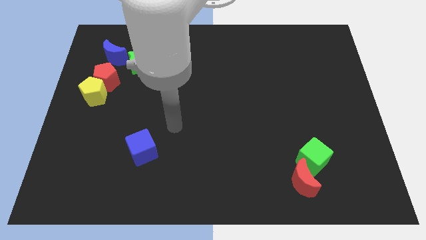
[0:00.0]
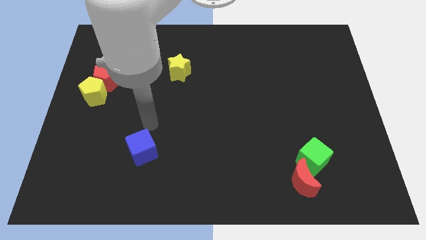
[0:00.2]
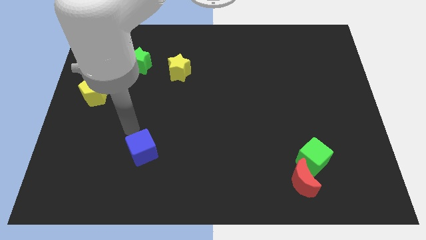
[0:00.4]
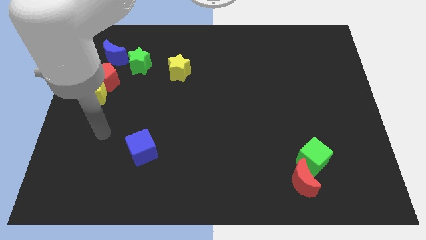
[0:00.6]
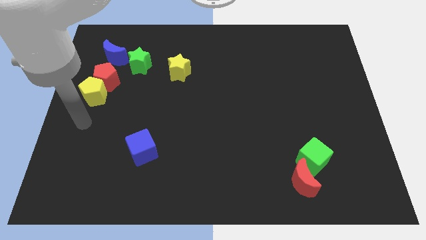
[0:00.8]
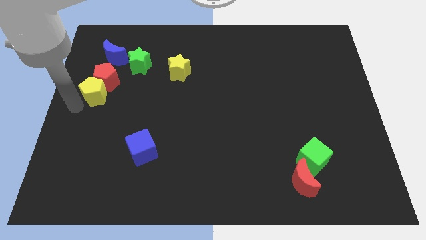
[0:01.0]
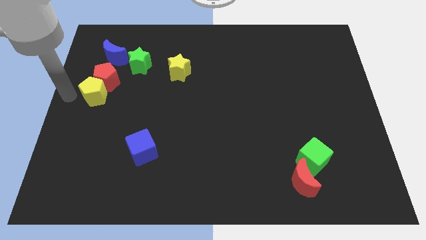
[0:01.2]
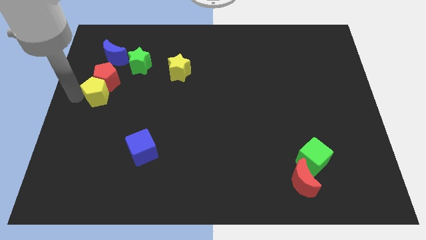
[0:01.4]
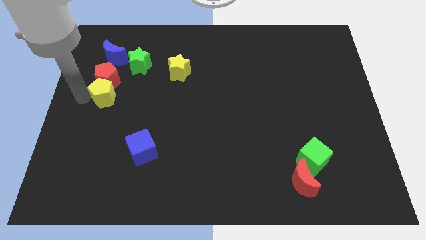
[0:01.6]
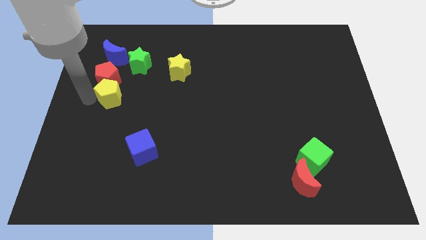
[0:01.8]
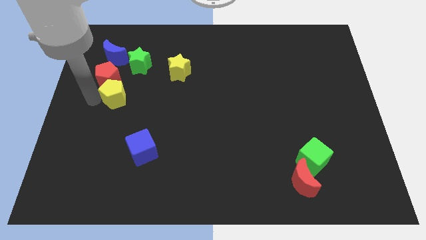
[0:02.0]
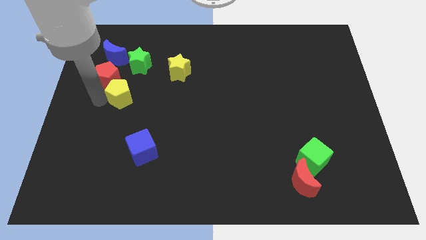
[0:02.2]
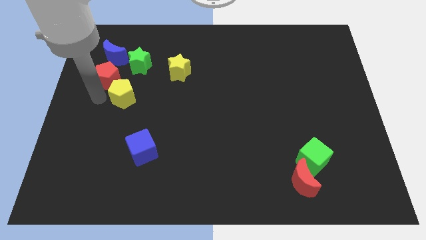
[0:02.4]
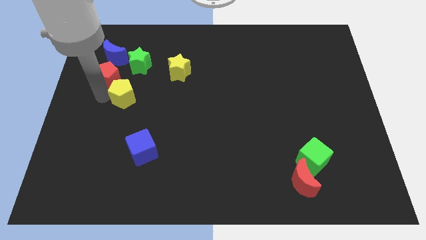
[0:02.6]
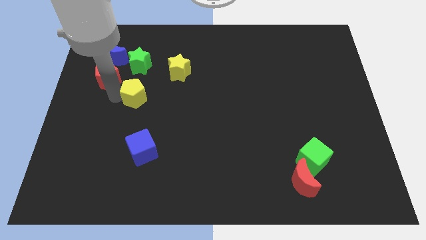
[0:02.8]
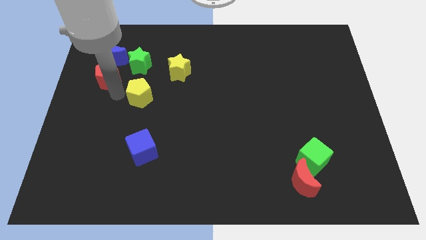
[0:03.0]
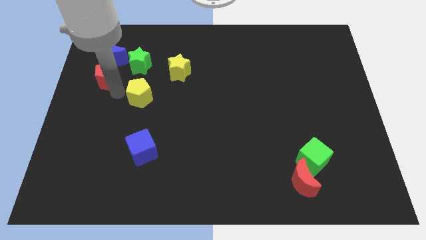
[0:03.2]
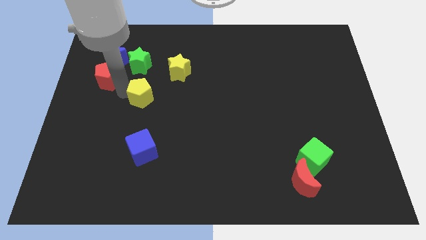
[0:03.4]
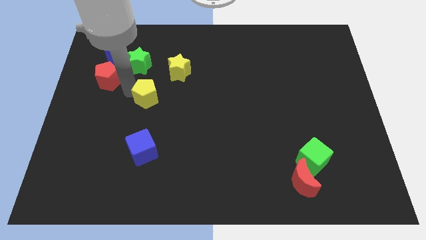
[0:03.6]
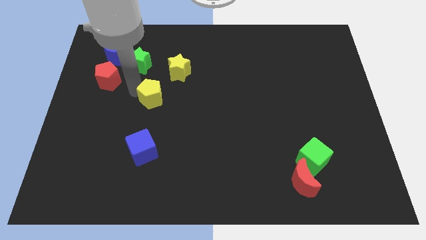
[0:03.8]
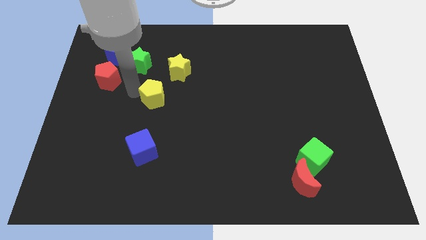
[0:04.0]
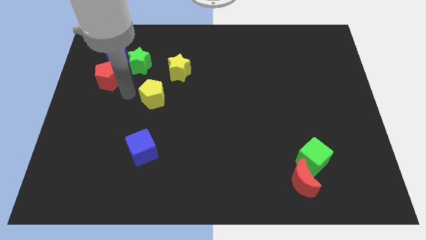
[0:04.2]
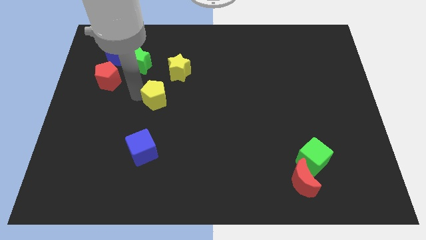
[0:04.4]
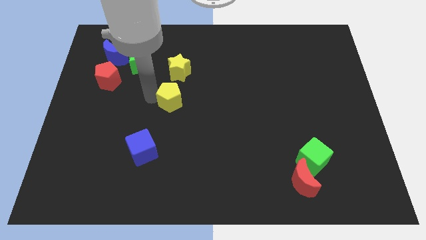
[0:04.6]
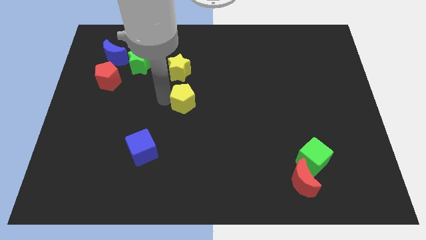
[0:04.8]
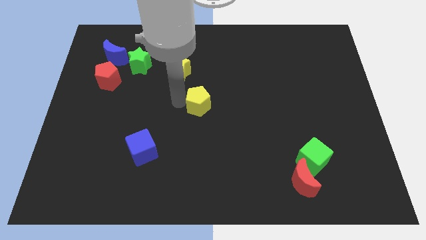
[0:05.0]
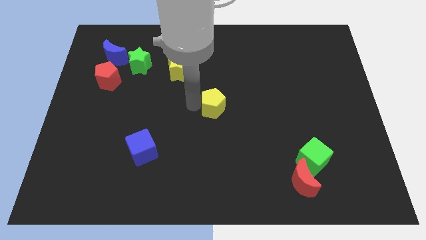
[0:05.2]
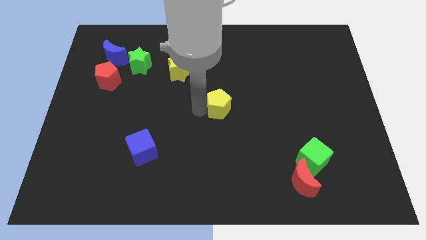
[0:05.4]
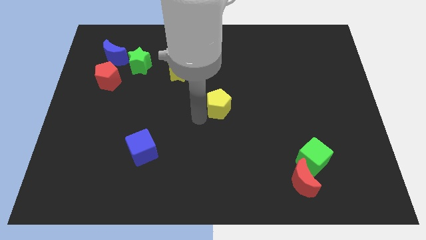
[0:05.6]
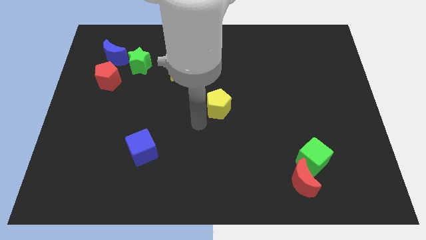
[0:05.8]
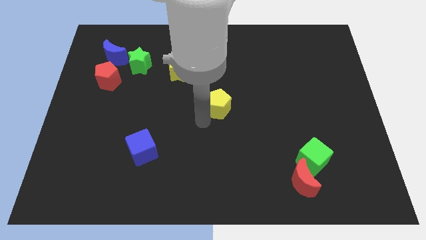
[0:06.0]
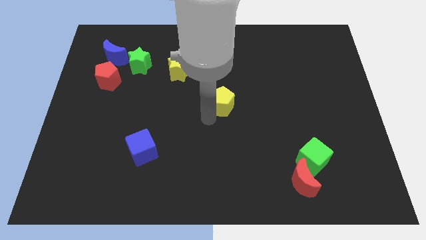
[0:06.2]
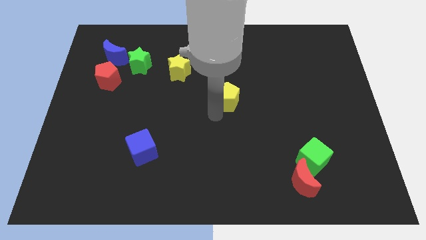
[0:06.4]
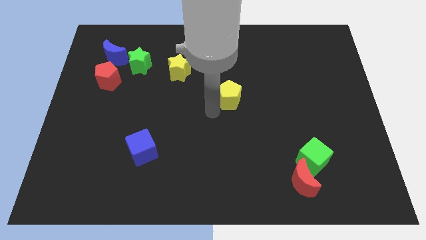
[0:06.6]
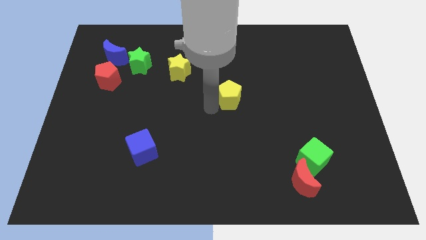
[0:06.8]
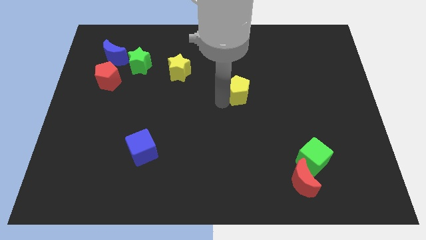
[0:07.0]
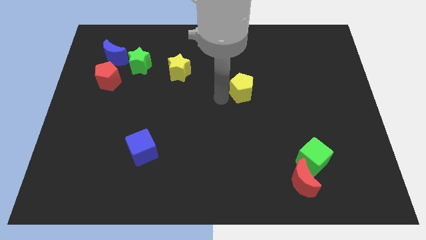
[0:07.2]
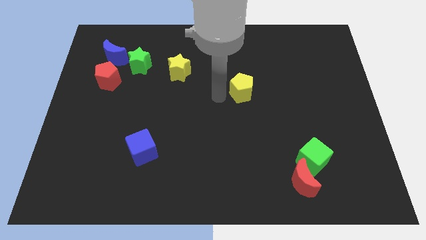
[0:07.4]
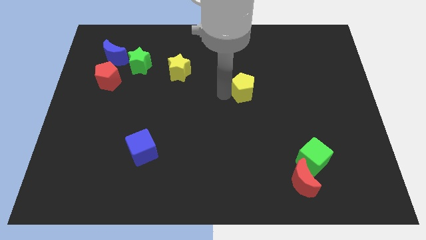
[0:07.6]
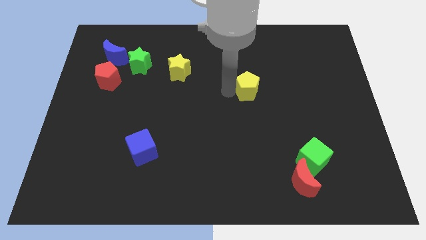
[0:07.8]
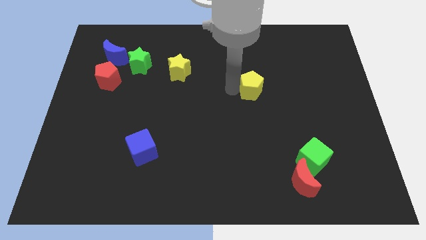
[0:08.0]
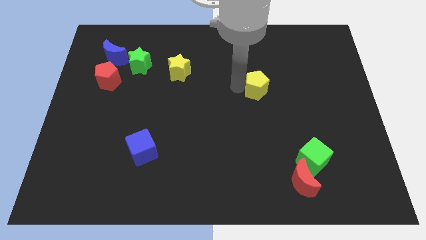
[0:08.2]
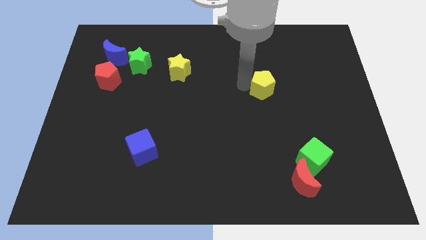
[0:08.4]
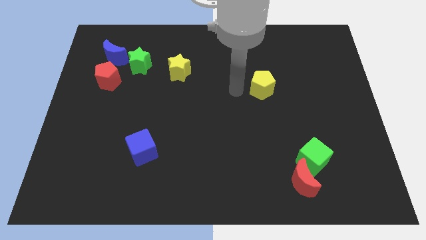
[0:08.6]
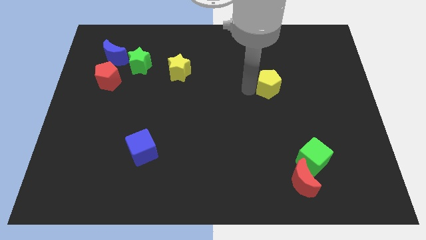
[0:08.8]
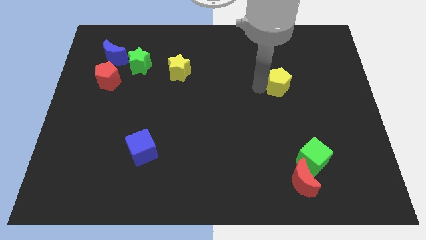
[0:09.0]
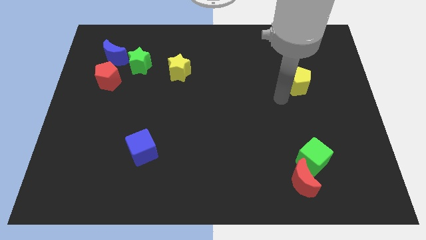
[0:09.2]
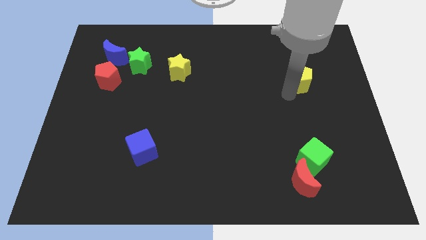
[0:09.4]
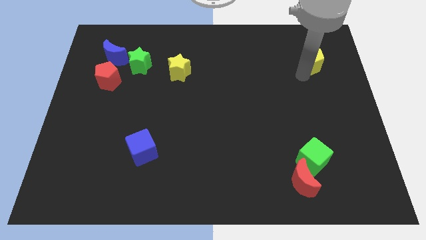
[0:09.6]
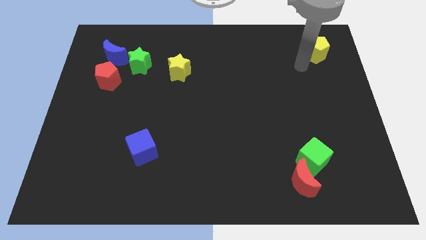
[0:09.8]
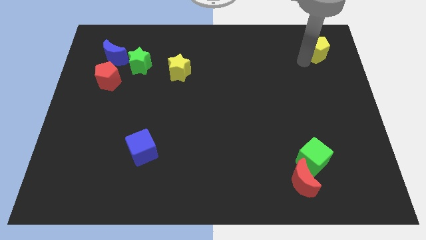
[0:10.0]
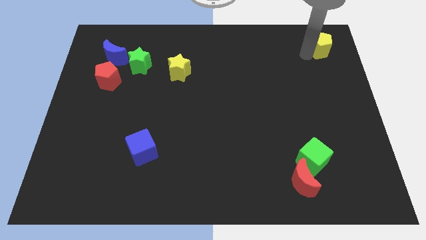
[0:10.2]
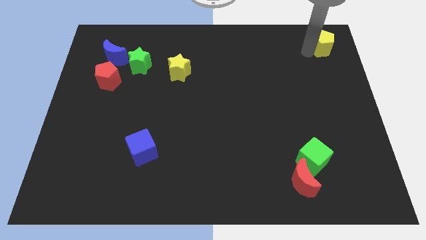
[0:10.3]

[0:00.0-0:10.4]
move the yellow pentagon to the top right

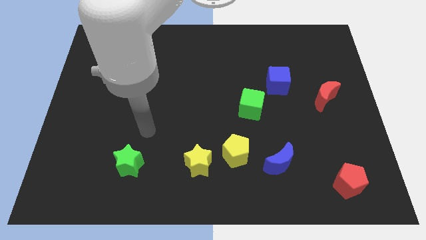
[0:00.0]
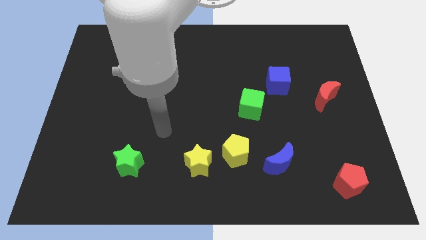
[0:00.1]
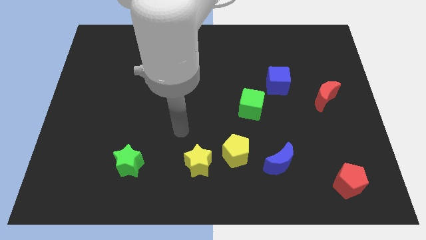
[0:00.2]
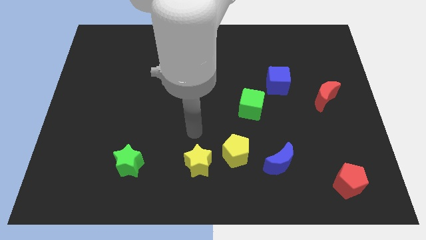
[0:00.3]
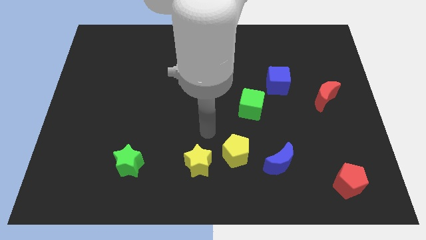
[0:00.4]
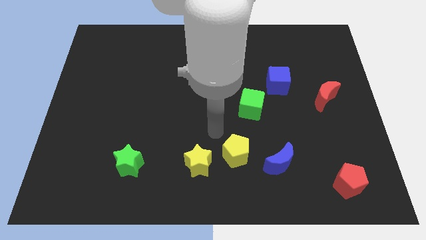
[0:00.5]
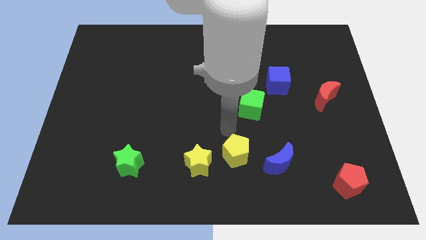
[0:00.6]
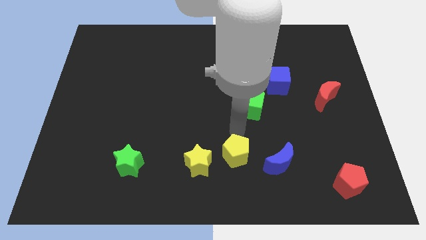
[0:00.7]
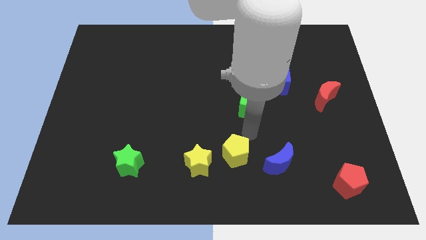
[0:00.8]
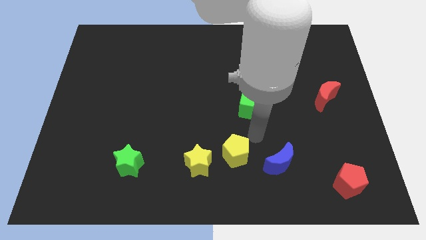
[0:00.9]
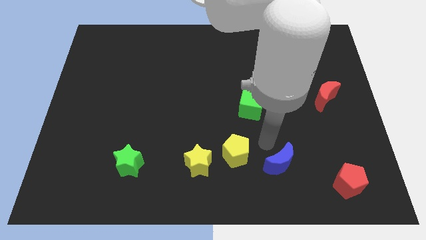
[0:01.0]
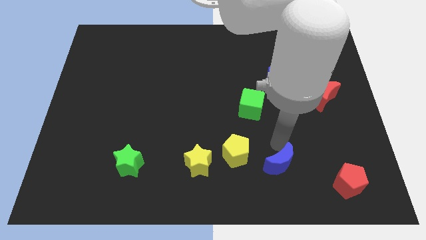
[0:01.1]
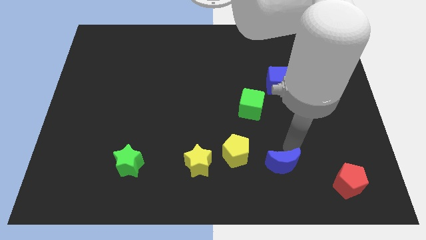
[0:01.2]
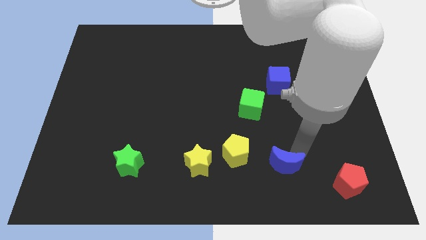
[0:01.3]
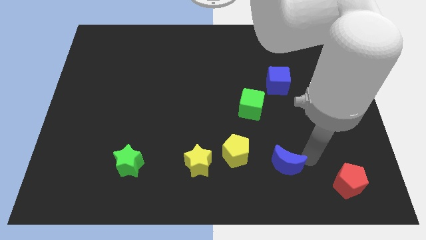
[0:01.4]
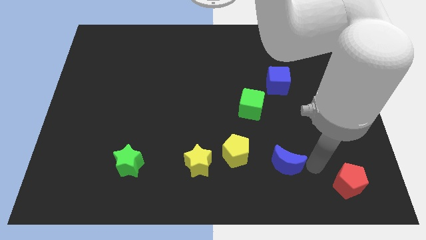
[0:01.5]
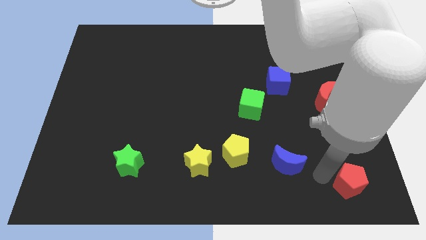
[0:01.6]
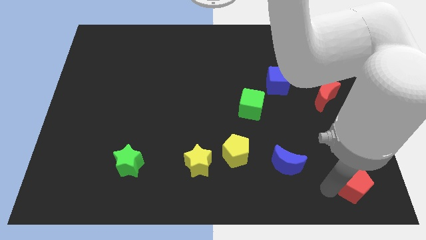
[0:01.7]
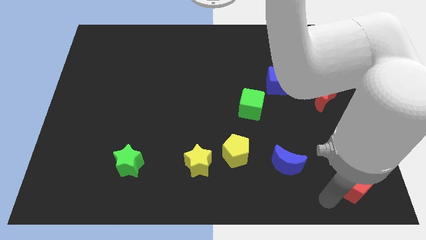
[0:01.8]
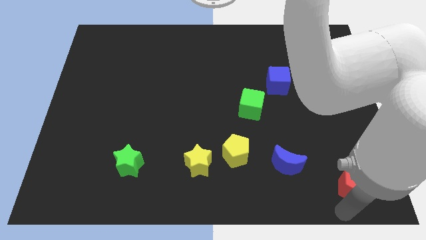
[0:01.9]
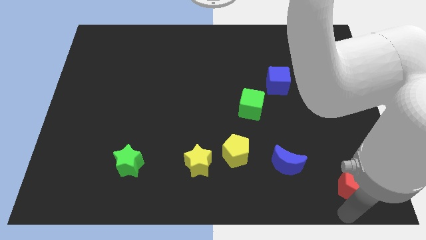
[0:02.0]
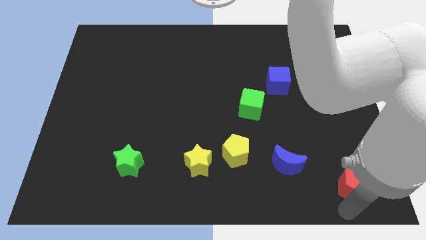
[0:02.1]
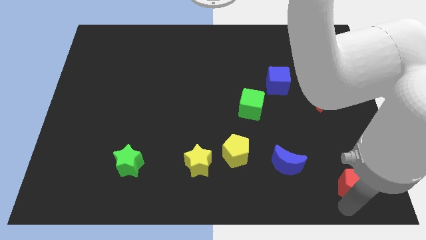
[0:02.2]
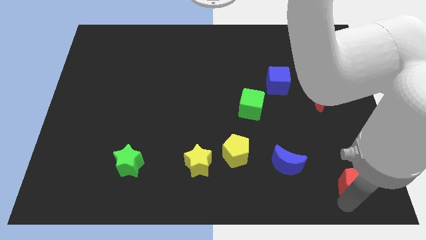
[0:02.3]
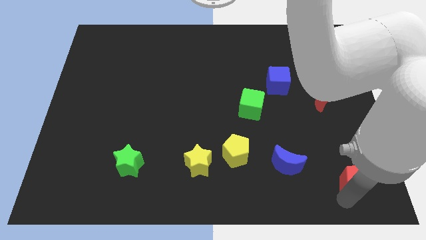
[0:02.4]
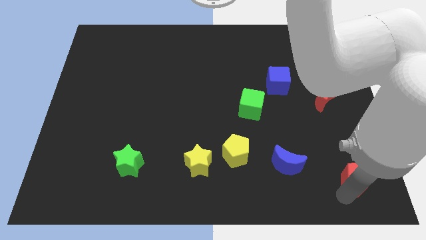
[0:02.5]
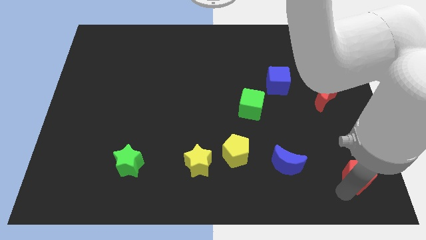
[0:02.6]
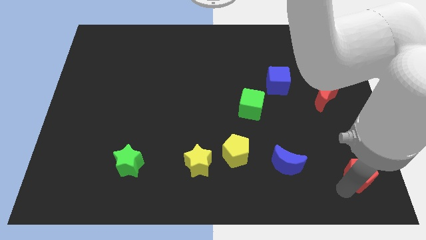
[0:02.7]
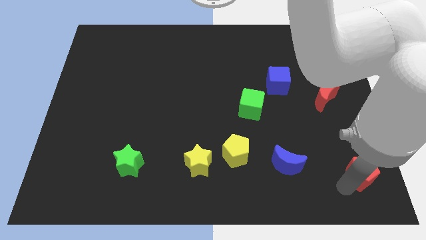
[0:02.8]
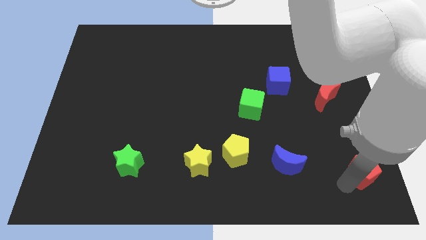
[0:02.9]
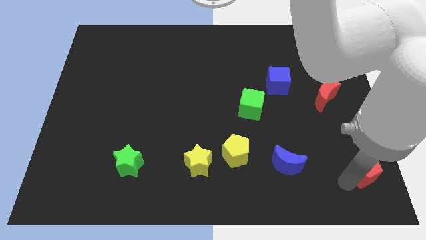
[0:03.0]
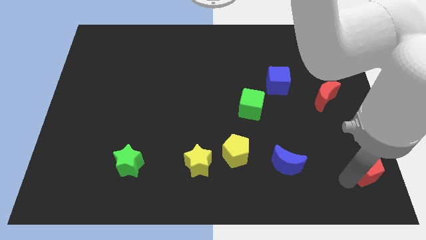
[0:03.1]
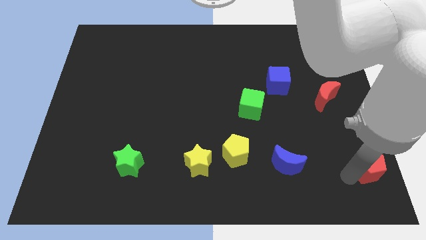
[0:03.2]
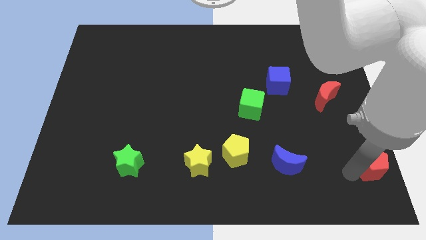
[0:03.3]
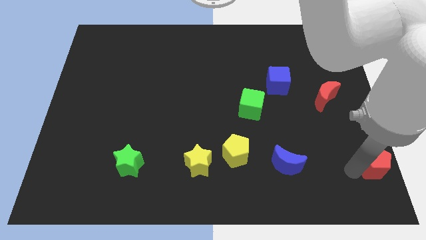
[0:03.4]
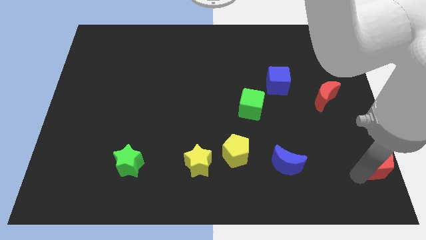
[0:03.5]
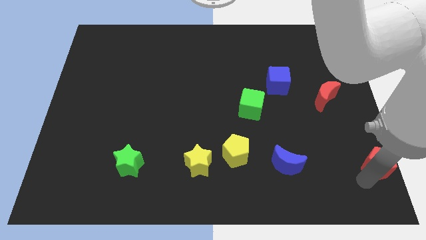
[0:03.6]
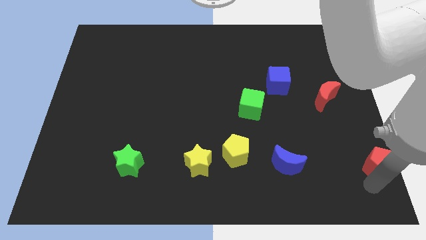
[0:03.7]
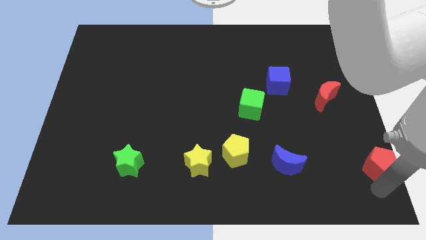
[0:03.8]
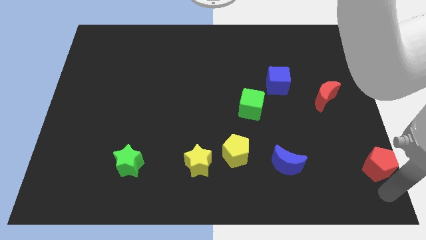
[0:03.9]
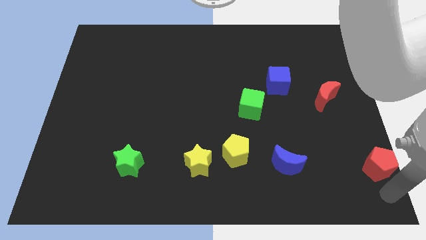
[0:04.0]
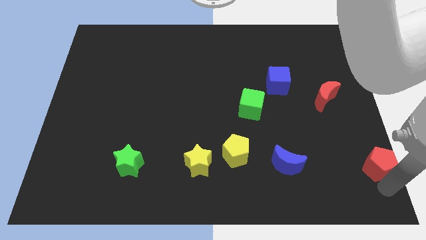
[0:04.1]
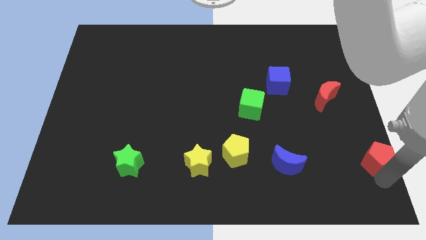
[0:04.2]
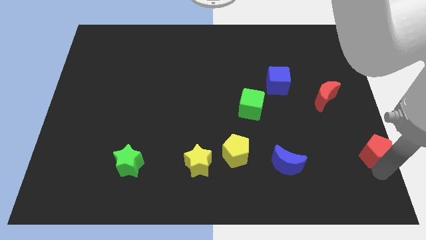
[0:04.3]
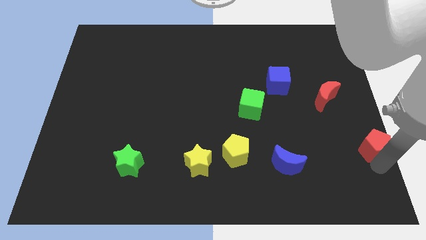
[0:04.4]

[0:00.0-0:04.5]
put the red pentagon to the center right
